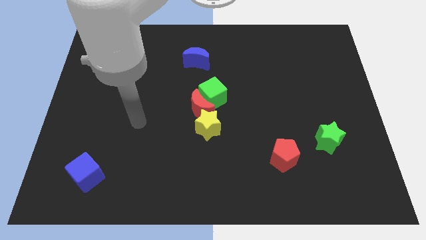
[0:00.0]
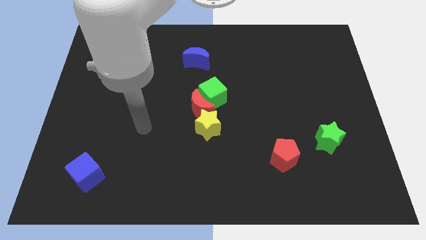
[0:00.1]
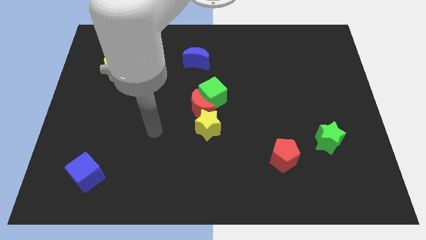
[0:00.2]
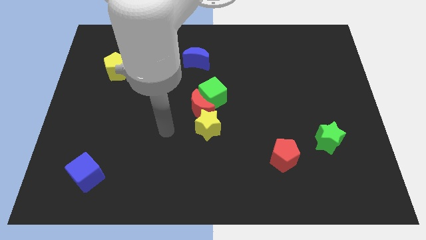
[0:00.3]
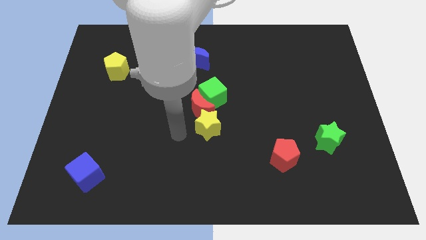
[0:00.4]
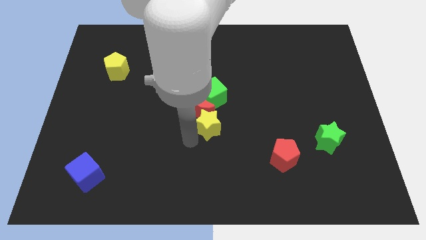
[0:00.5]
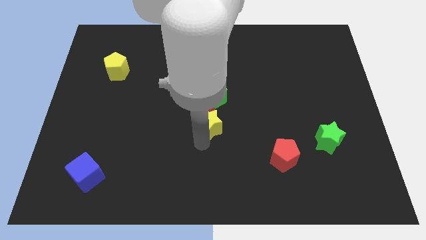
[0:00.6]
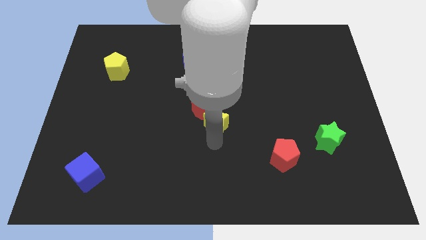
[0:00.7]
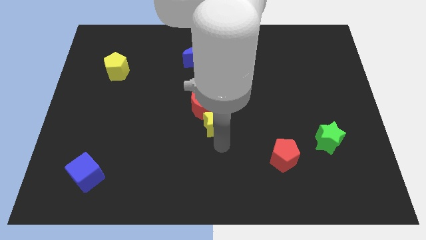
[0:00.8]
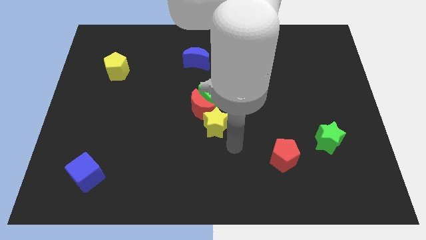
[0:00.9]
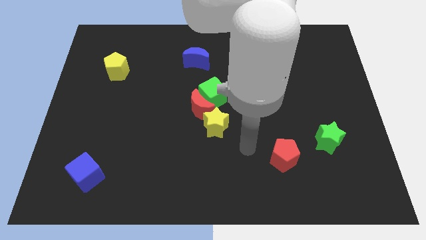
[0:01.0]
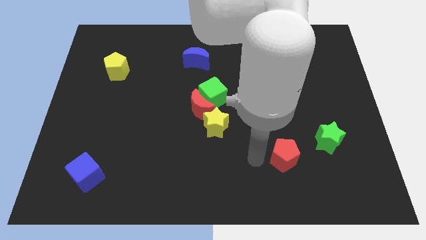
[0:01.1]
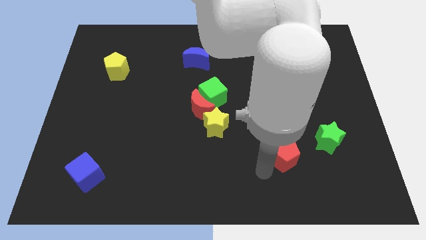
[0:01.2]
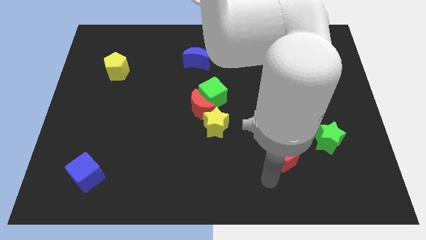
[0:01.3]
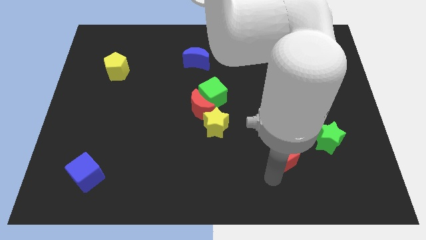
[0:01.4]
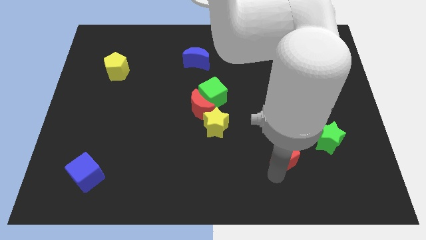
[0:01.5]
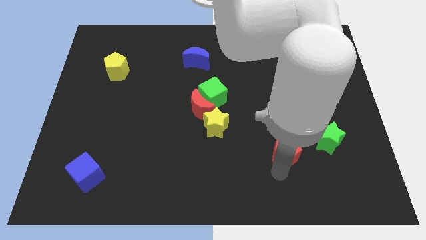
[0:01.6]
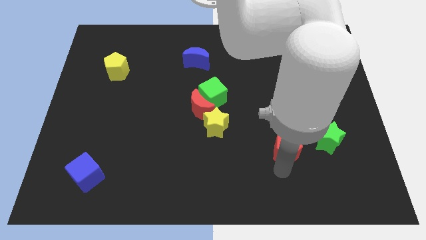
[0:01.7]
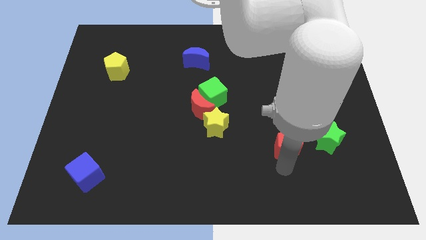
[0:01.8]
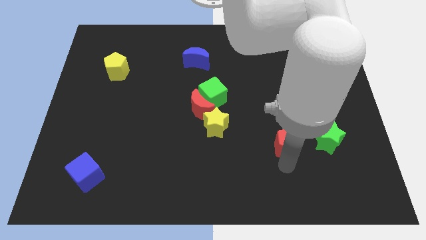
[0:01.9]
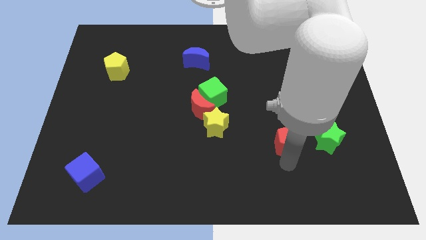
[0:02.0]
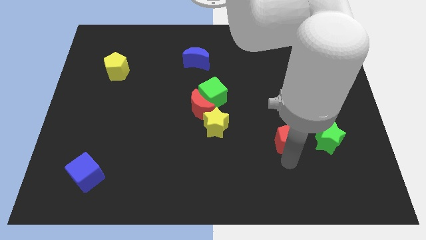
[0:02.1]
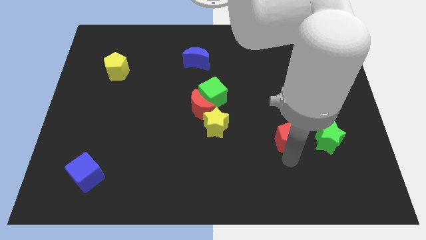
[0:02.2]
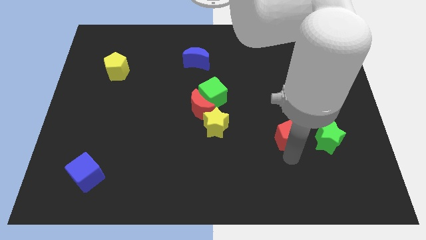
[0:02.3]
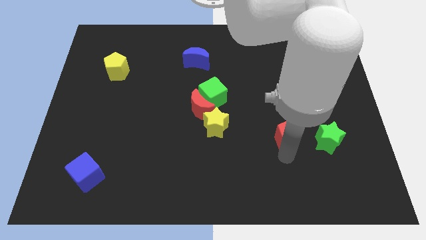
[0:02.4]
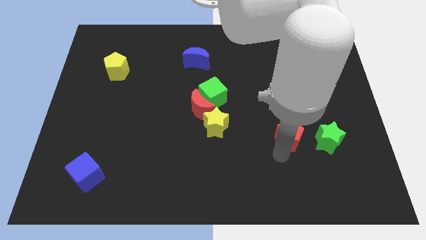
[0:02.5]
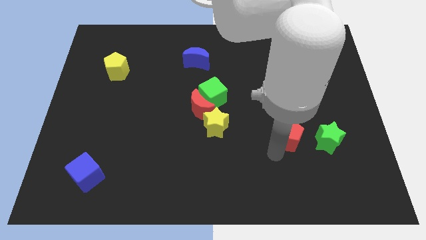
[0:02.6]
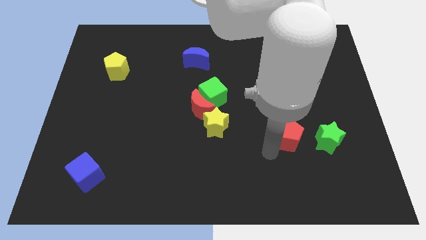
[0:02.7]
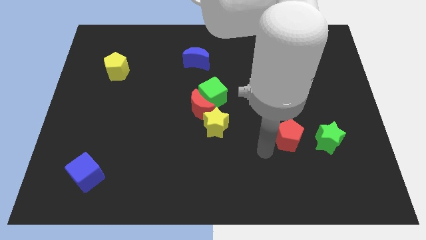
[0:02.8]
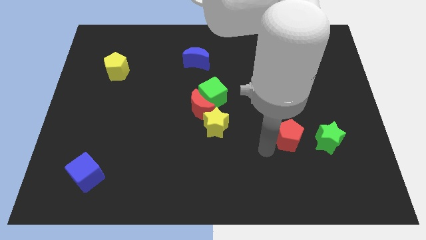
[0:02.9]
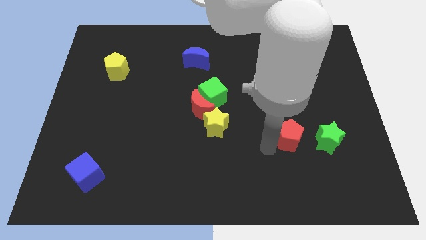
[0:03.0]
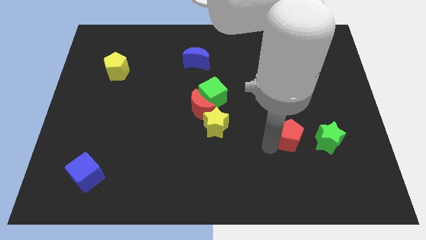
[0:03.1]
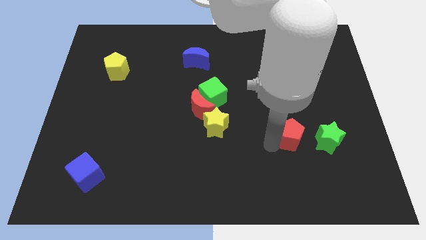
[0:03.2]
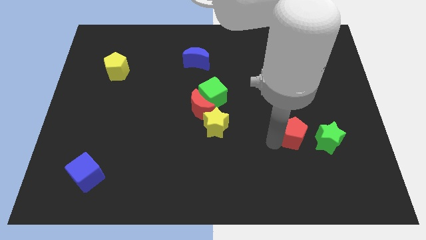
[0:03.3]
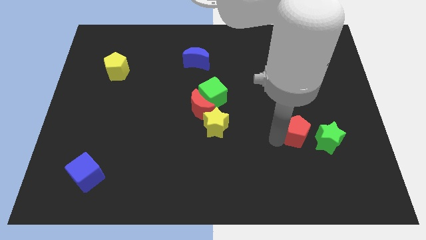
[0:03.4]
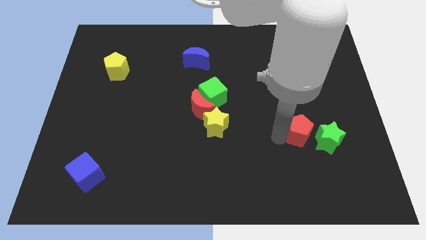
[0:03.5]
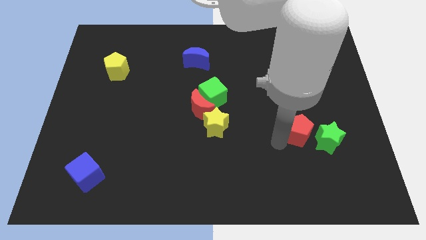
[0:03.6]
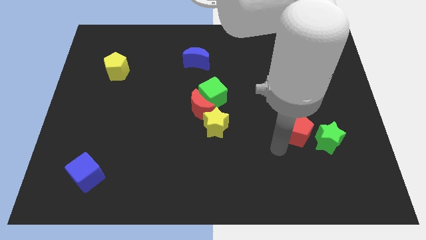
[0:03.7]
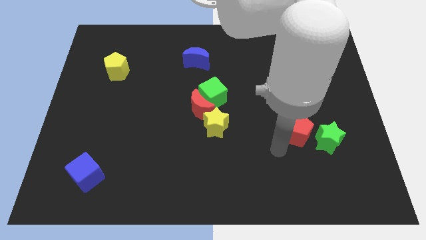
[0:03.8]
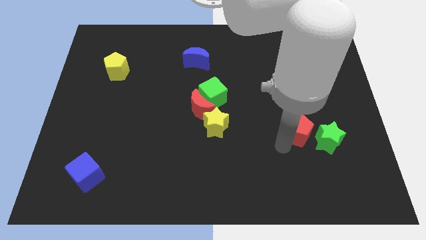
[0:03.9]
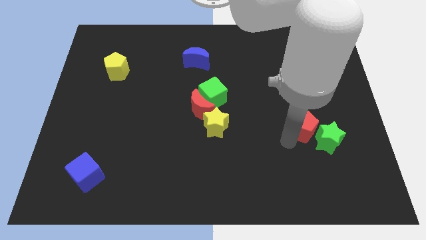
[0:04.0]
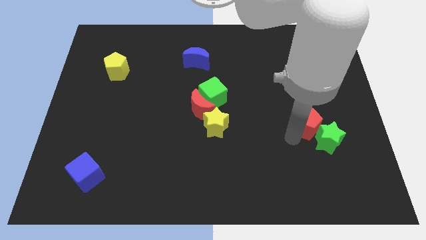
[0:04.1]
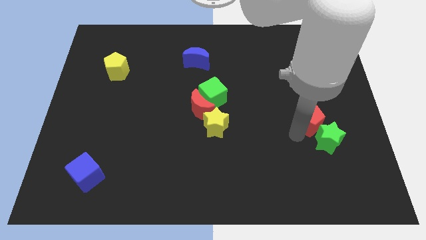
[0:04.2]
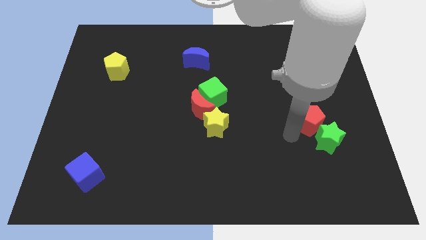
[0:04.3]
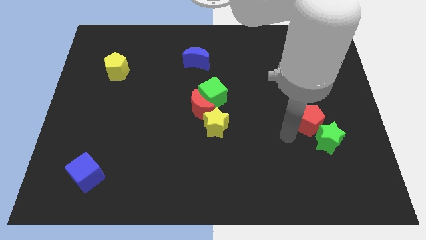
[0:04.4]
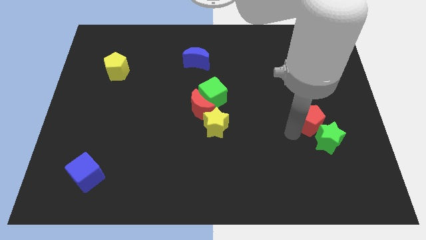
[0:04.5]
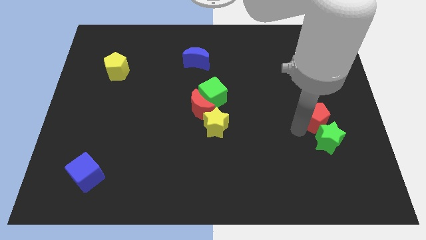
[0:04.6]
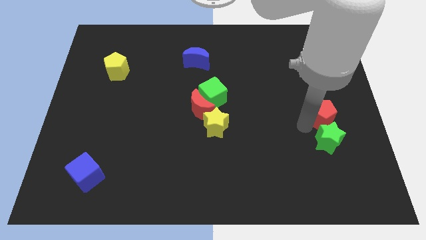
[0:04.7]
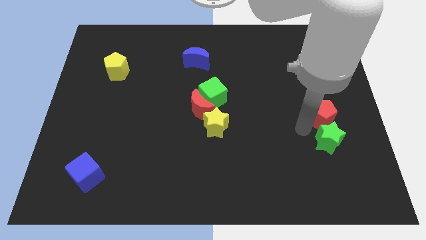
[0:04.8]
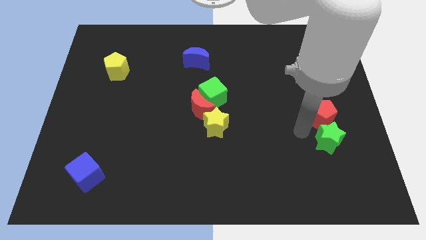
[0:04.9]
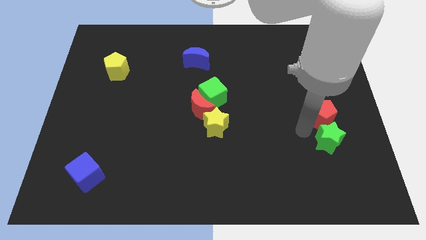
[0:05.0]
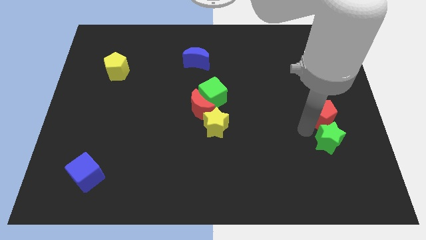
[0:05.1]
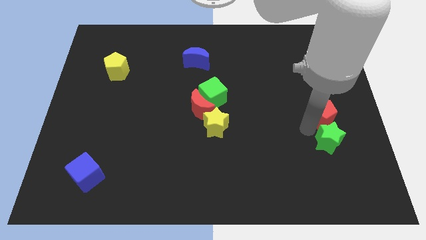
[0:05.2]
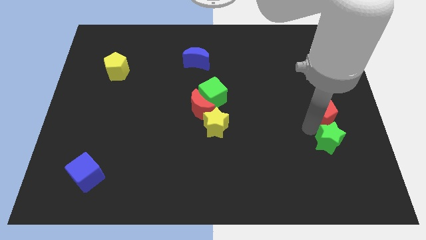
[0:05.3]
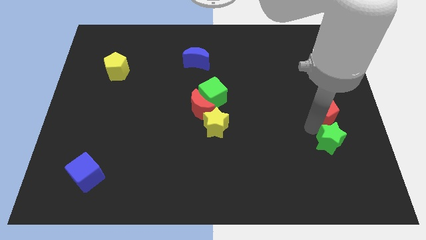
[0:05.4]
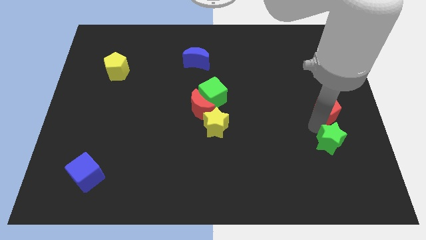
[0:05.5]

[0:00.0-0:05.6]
slide the red pentagon to the right side of the board
